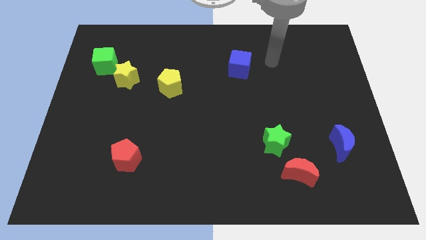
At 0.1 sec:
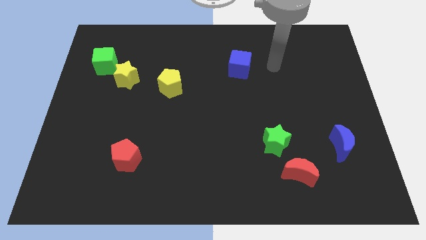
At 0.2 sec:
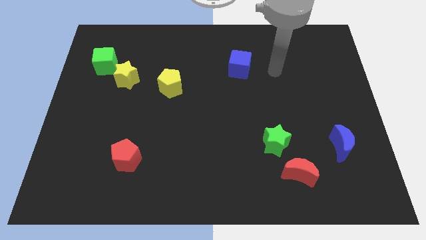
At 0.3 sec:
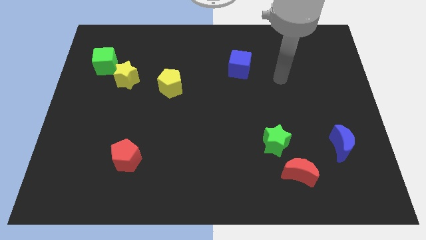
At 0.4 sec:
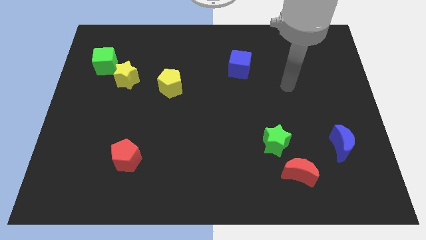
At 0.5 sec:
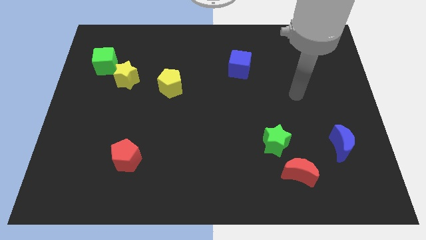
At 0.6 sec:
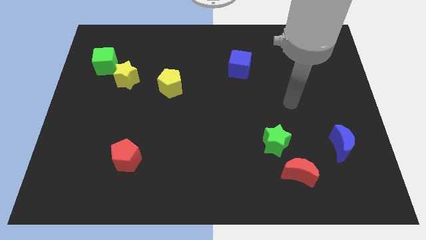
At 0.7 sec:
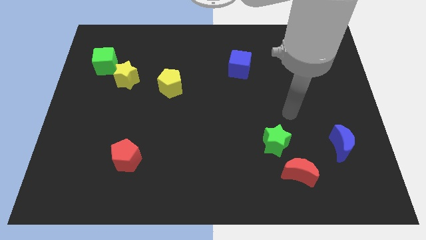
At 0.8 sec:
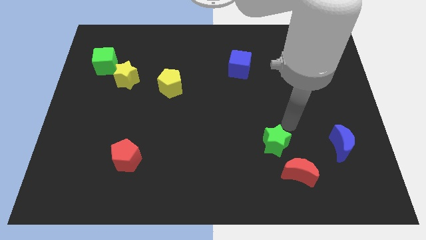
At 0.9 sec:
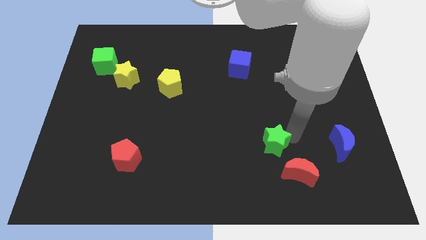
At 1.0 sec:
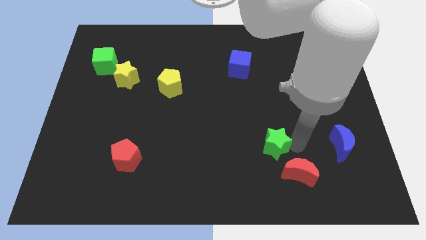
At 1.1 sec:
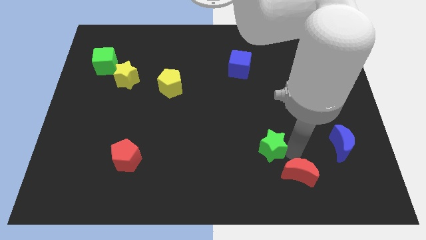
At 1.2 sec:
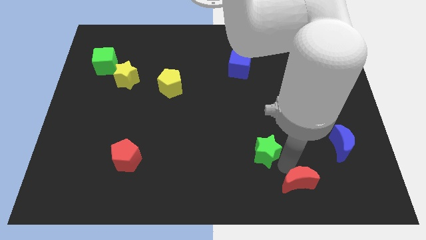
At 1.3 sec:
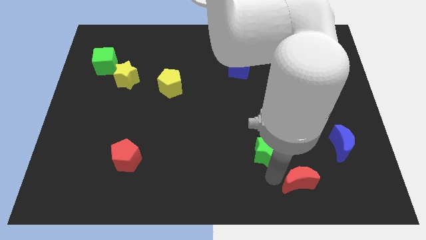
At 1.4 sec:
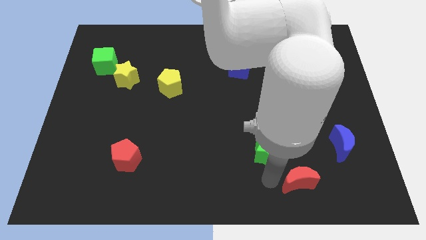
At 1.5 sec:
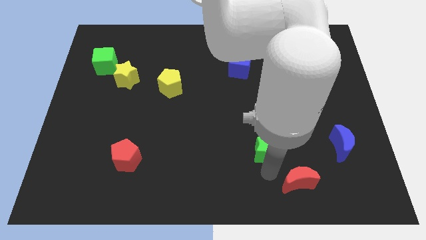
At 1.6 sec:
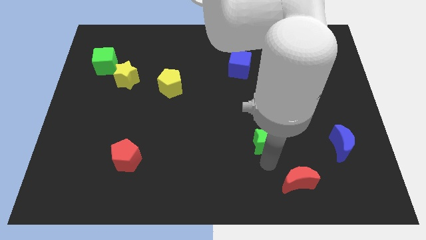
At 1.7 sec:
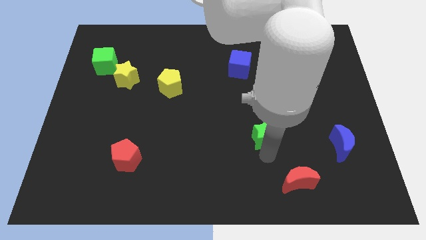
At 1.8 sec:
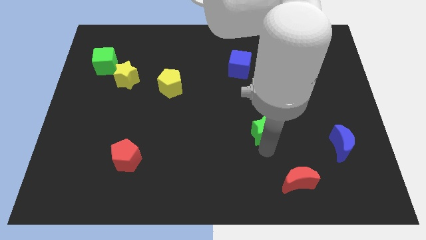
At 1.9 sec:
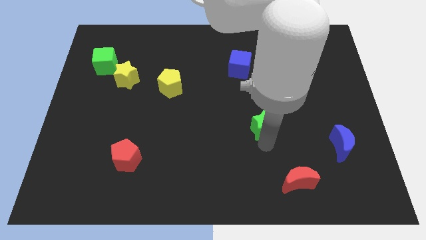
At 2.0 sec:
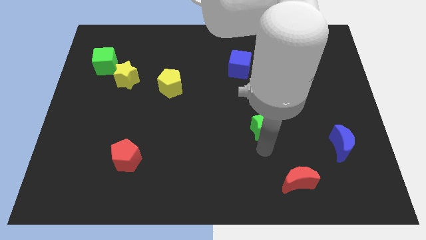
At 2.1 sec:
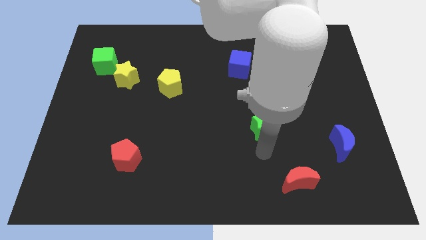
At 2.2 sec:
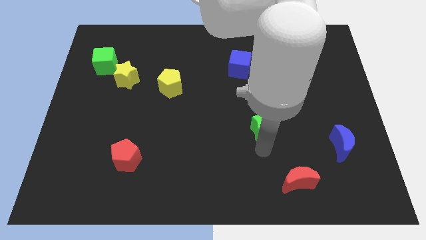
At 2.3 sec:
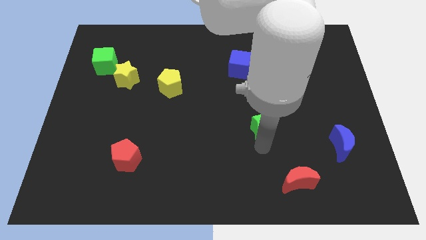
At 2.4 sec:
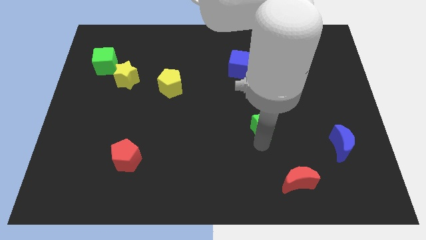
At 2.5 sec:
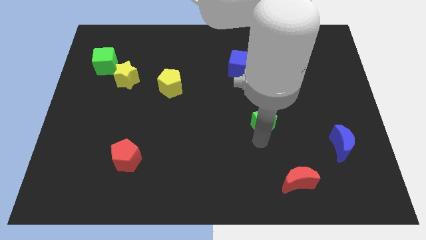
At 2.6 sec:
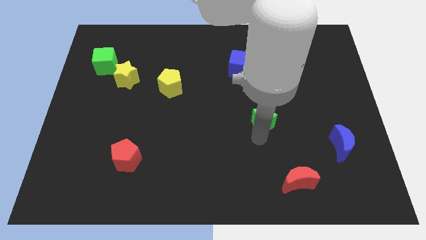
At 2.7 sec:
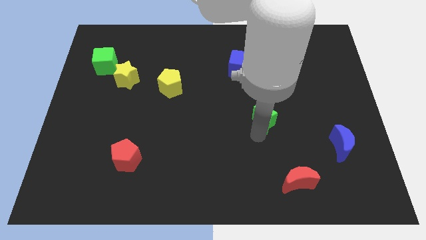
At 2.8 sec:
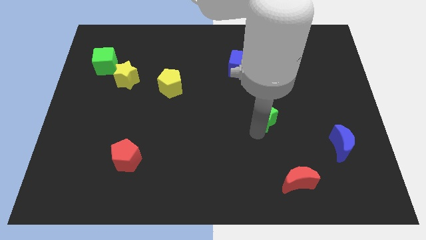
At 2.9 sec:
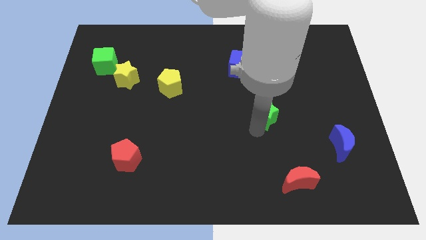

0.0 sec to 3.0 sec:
push the green star up a little

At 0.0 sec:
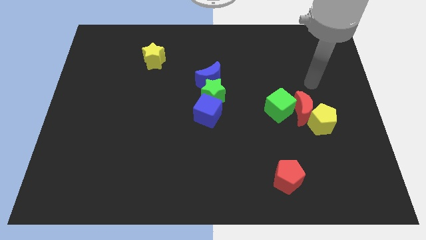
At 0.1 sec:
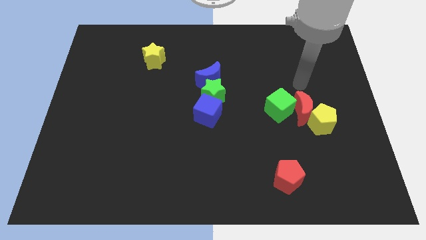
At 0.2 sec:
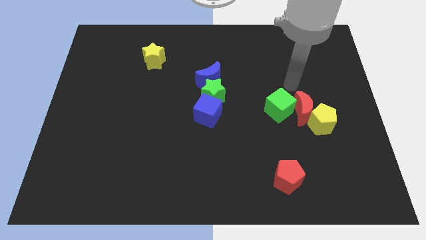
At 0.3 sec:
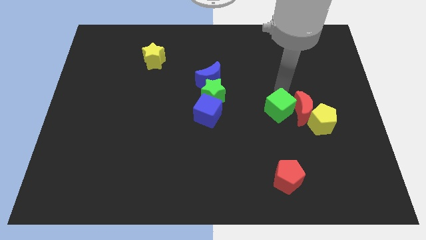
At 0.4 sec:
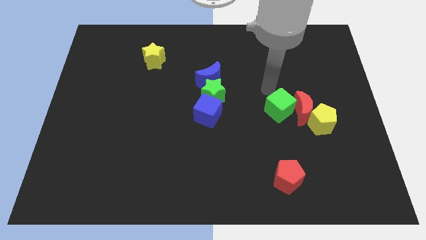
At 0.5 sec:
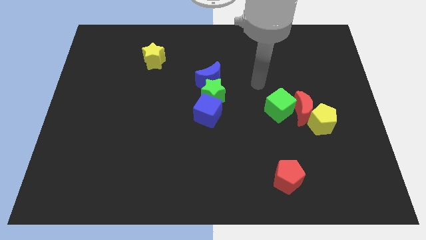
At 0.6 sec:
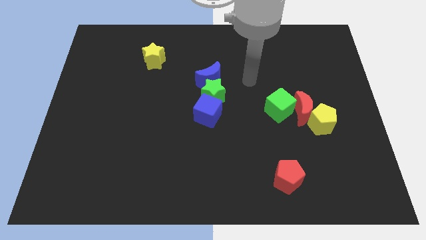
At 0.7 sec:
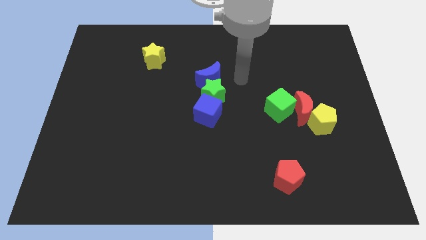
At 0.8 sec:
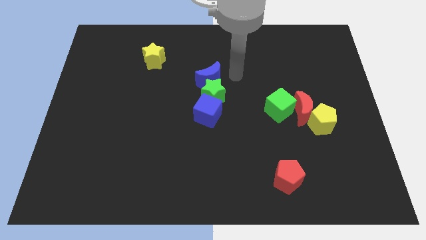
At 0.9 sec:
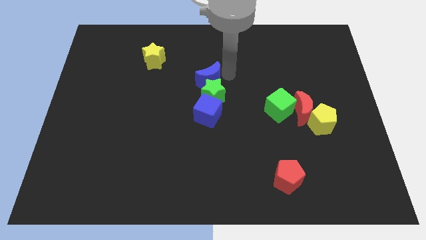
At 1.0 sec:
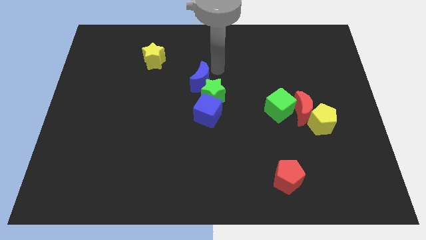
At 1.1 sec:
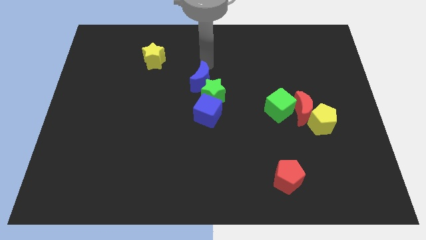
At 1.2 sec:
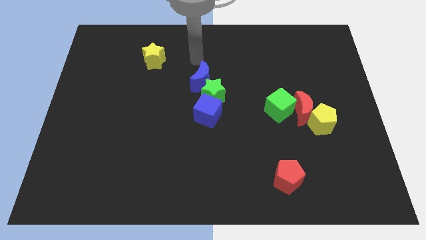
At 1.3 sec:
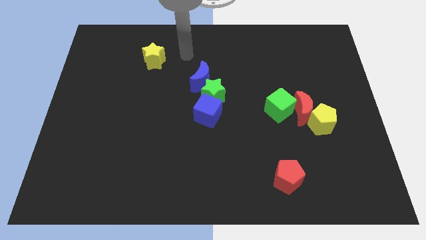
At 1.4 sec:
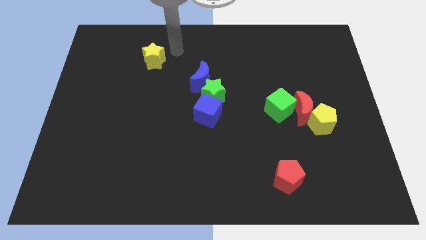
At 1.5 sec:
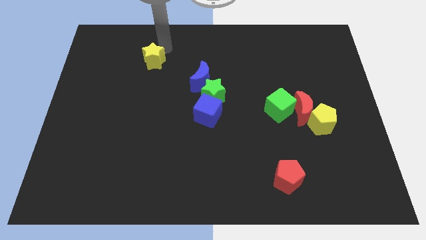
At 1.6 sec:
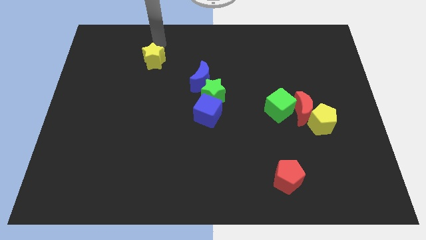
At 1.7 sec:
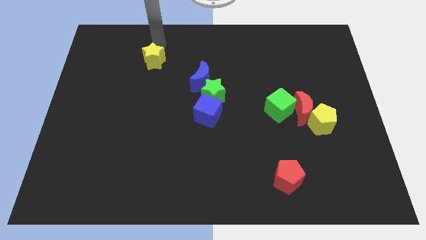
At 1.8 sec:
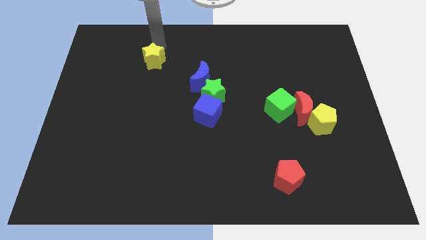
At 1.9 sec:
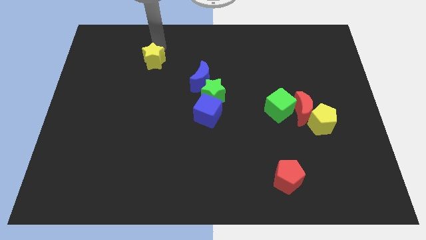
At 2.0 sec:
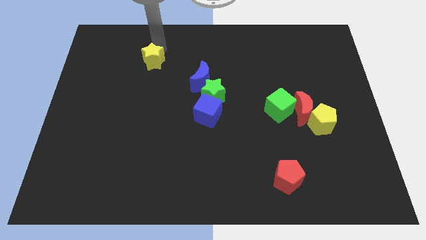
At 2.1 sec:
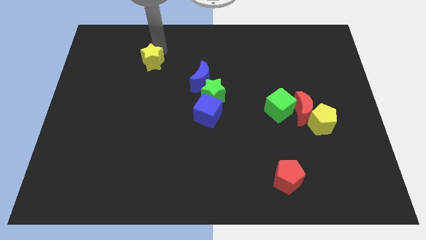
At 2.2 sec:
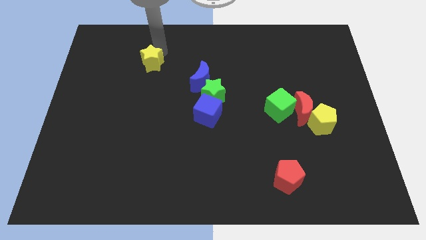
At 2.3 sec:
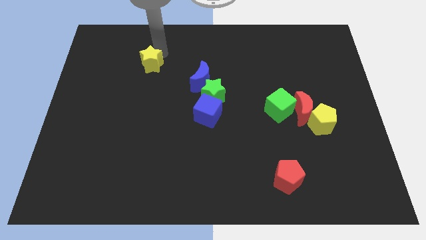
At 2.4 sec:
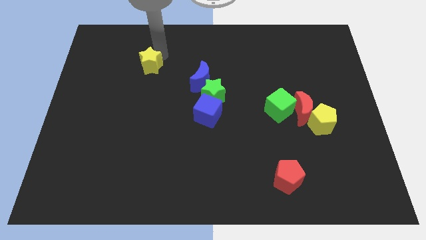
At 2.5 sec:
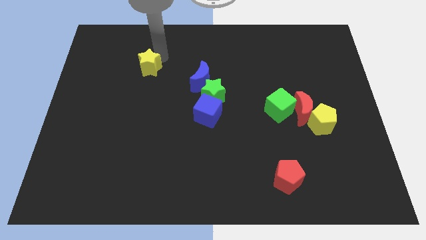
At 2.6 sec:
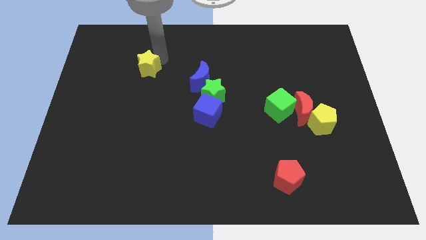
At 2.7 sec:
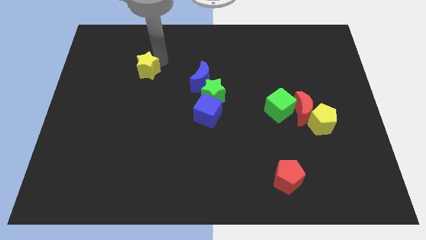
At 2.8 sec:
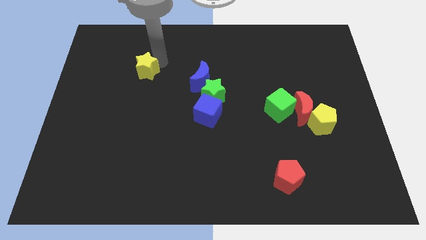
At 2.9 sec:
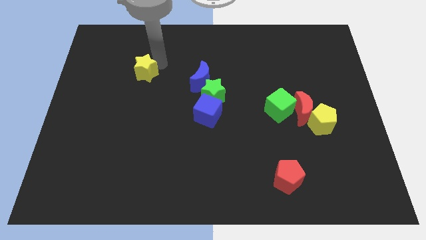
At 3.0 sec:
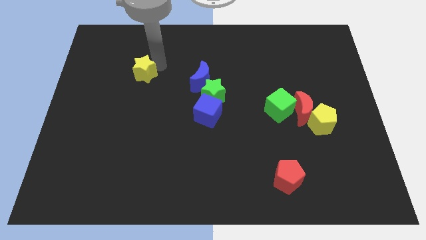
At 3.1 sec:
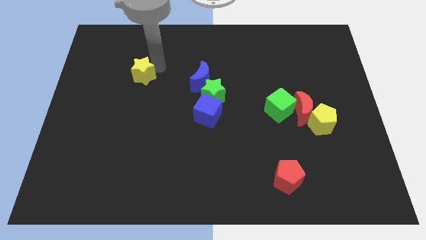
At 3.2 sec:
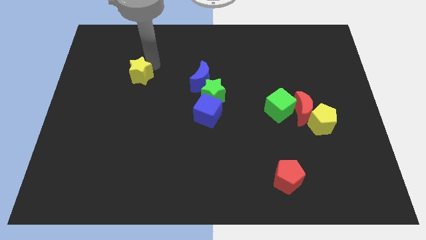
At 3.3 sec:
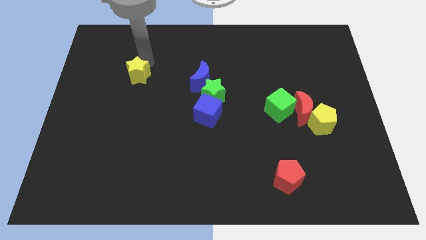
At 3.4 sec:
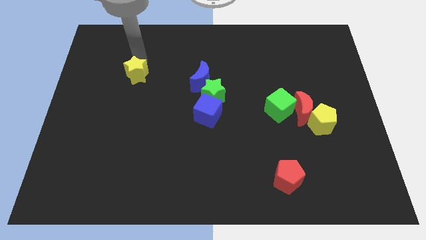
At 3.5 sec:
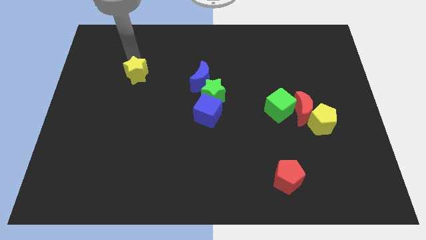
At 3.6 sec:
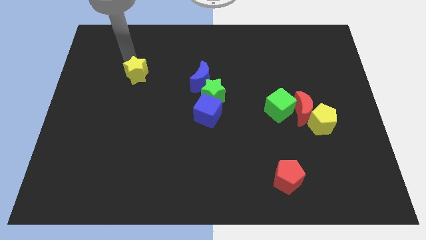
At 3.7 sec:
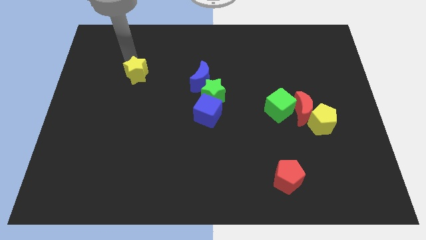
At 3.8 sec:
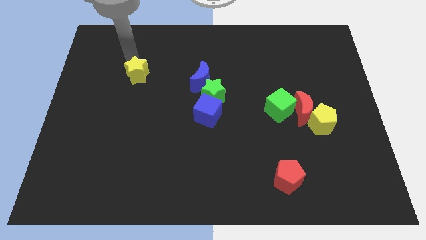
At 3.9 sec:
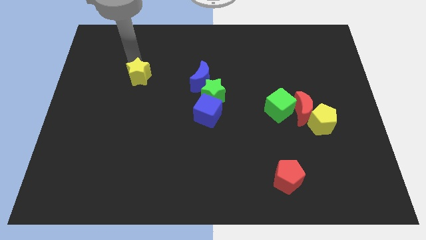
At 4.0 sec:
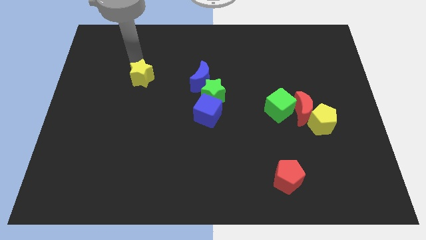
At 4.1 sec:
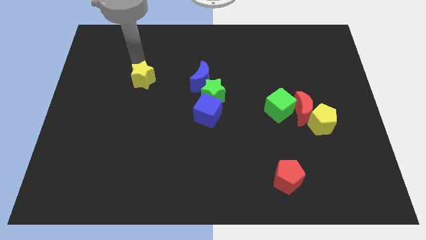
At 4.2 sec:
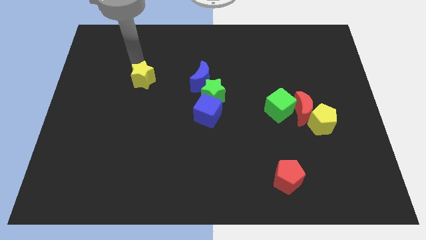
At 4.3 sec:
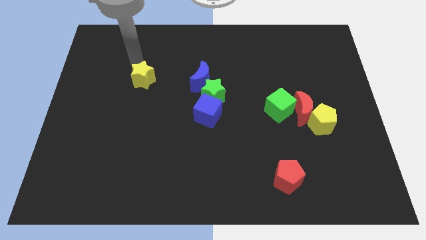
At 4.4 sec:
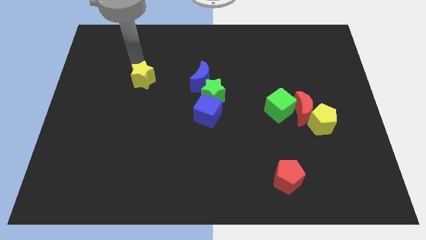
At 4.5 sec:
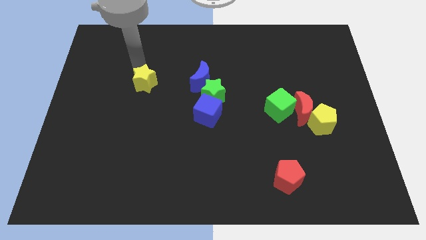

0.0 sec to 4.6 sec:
push the yellow star down a little

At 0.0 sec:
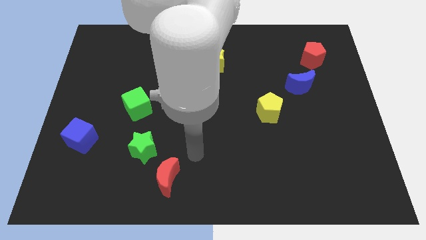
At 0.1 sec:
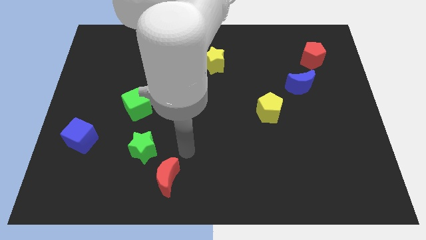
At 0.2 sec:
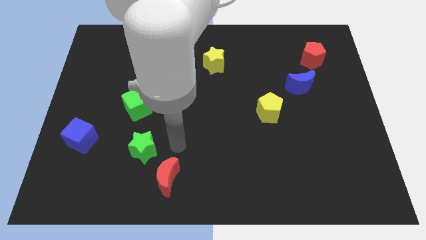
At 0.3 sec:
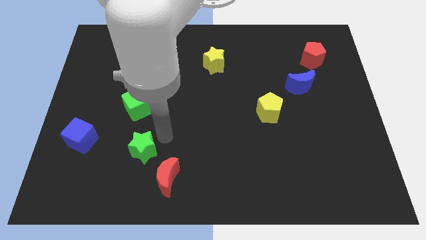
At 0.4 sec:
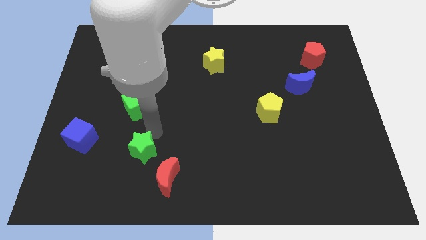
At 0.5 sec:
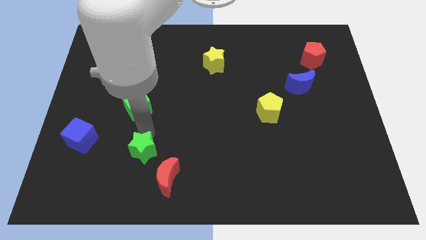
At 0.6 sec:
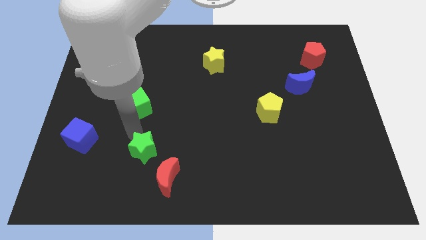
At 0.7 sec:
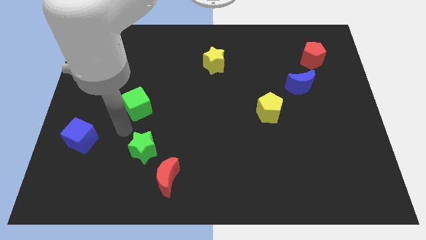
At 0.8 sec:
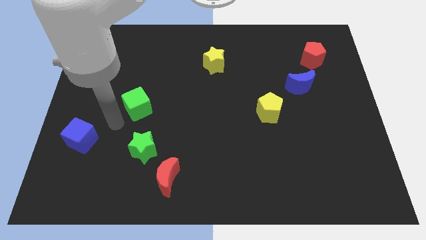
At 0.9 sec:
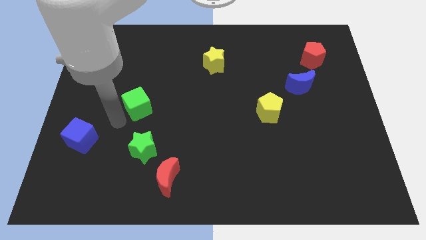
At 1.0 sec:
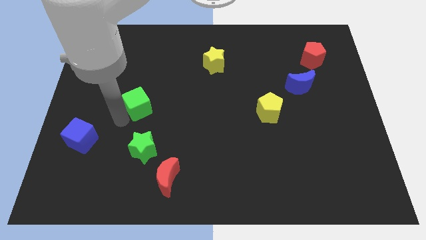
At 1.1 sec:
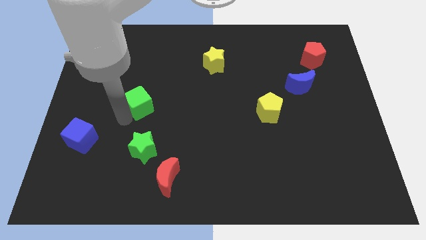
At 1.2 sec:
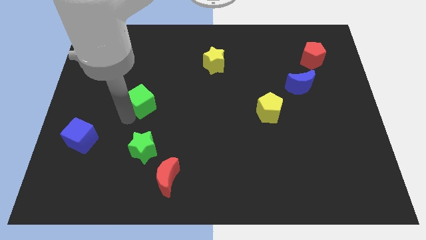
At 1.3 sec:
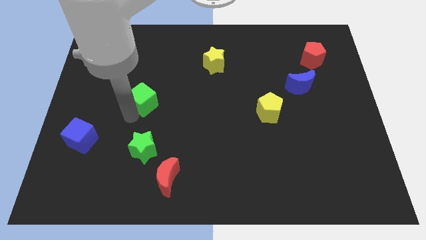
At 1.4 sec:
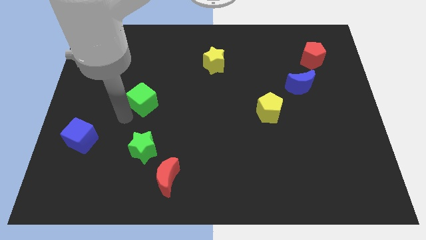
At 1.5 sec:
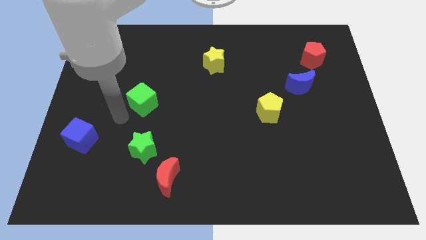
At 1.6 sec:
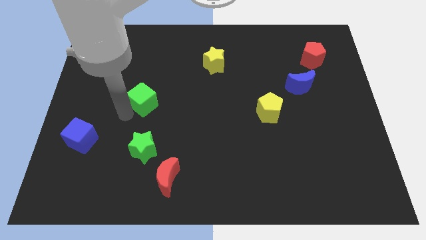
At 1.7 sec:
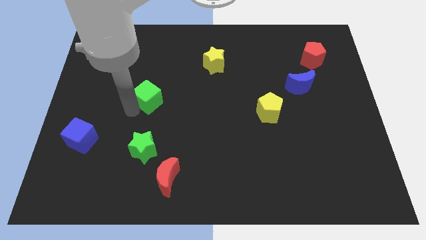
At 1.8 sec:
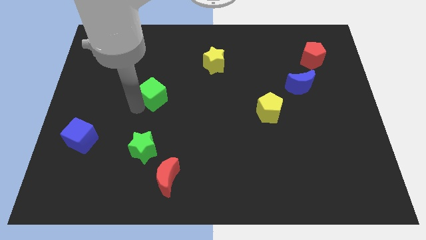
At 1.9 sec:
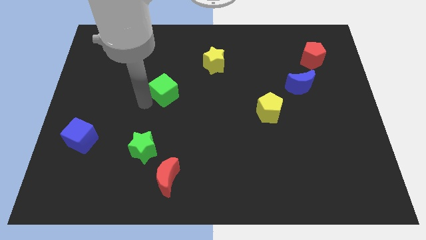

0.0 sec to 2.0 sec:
move the green cube up and to the right somewhat
